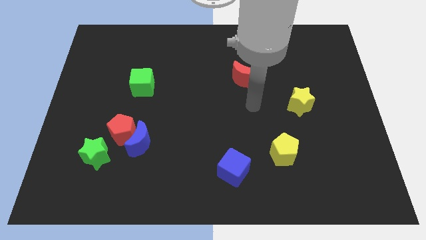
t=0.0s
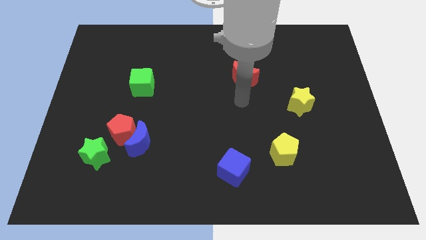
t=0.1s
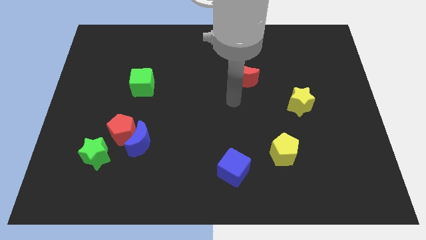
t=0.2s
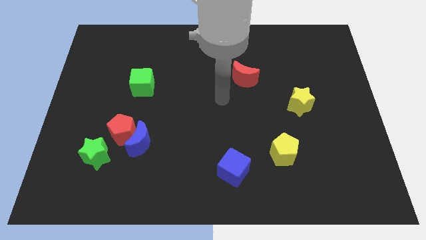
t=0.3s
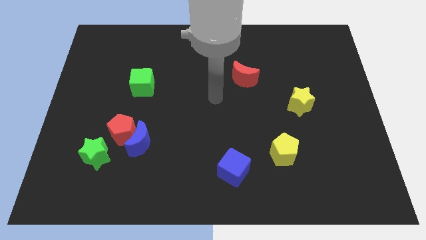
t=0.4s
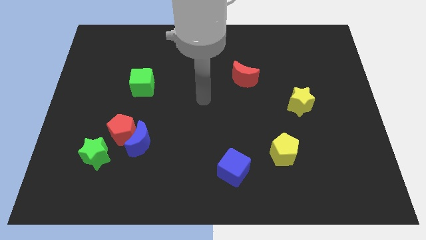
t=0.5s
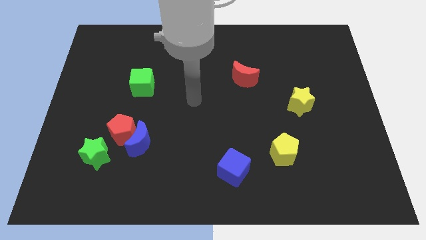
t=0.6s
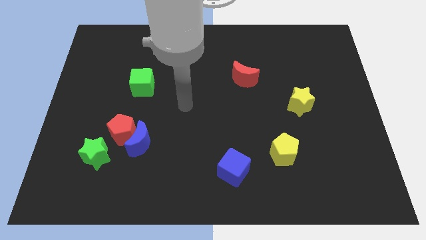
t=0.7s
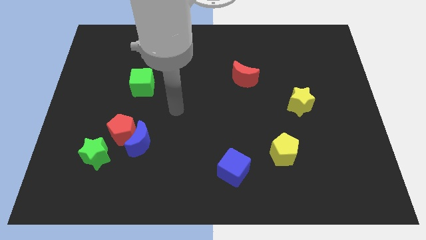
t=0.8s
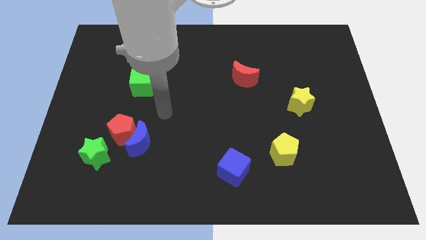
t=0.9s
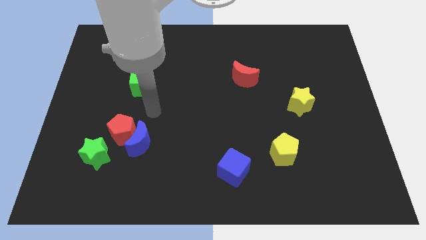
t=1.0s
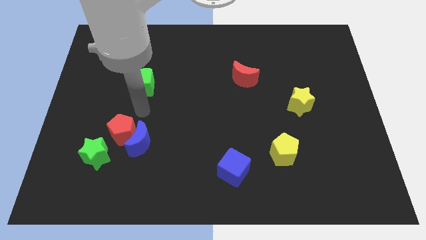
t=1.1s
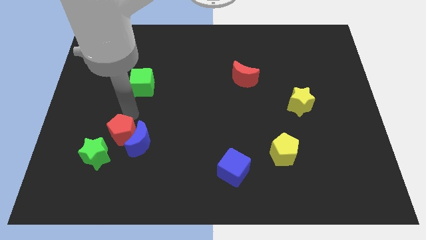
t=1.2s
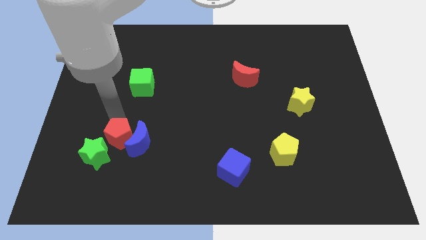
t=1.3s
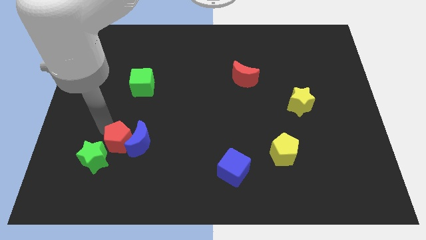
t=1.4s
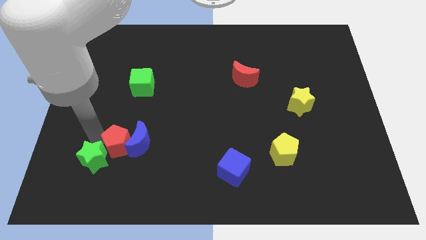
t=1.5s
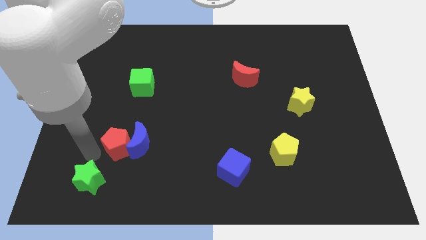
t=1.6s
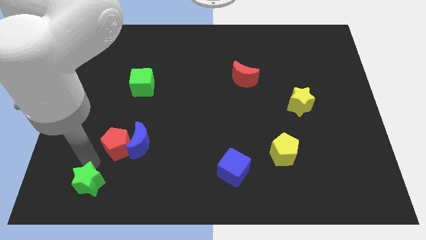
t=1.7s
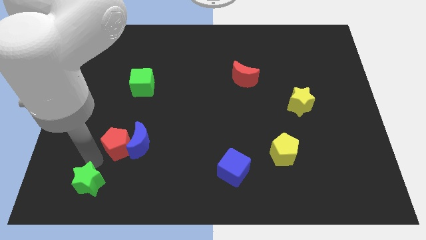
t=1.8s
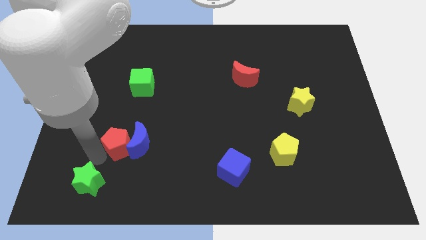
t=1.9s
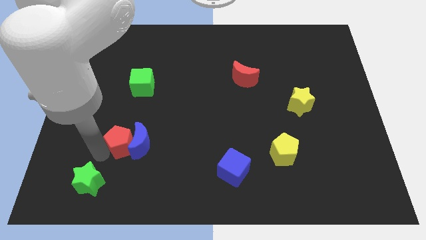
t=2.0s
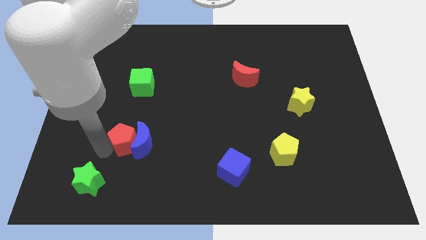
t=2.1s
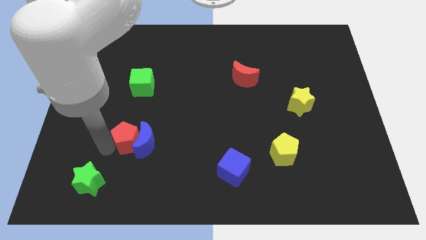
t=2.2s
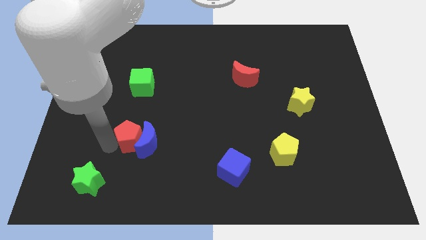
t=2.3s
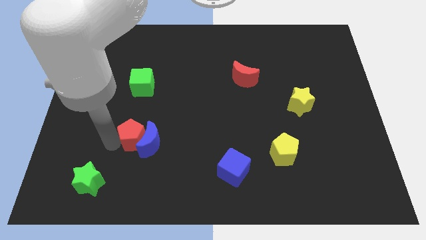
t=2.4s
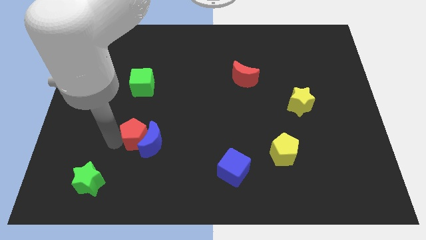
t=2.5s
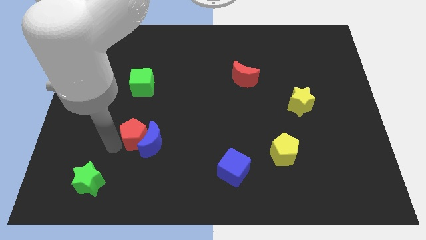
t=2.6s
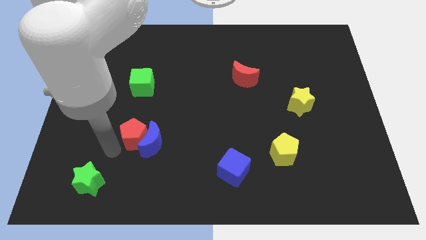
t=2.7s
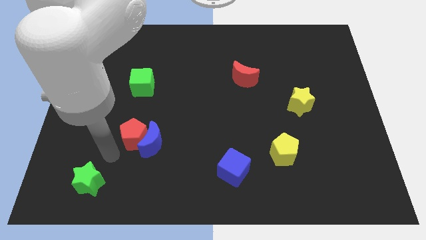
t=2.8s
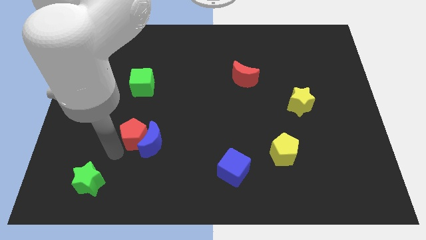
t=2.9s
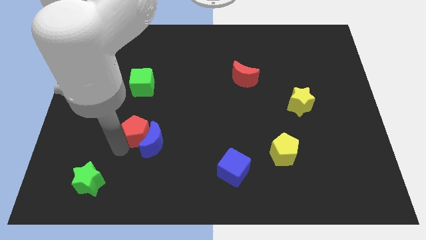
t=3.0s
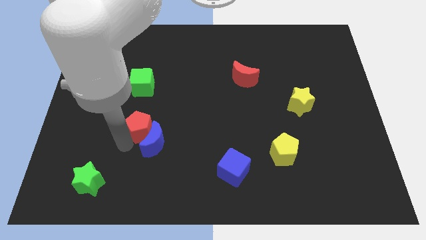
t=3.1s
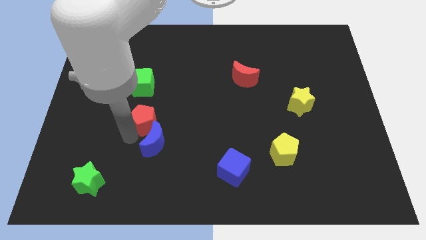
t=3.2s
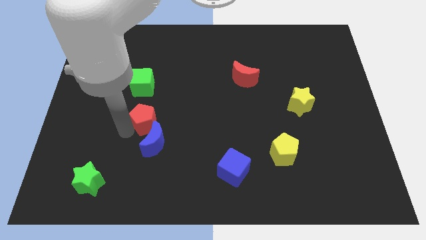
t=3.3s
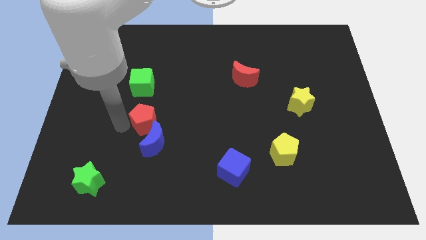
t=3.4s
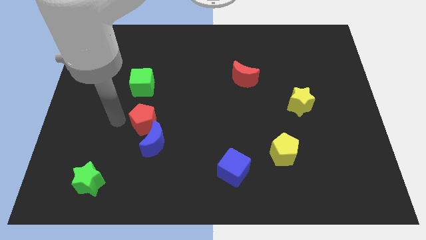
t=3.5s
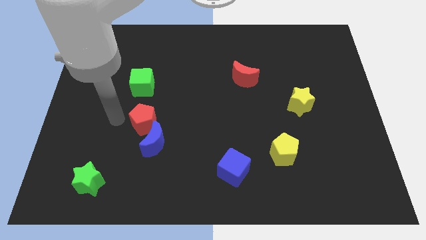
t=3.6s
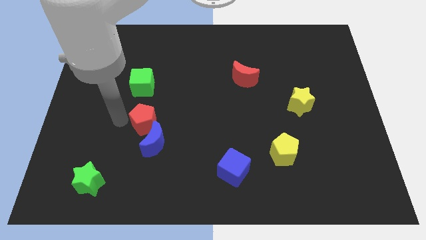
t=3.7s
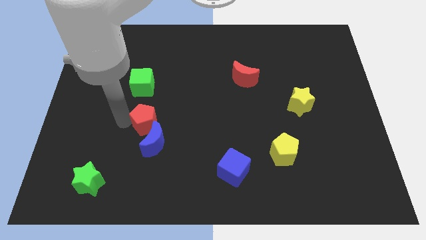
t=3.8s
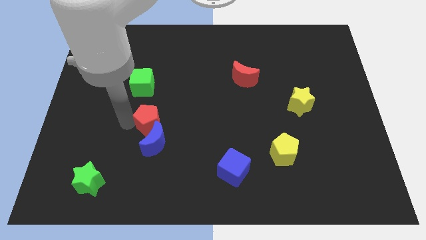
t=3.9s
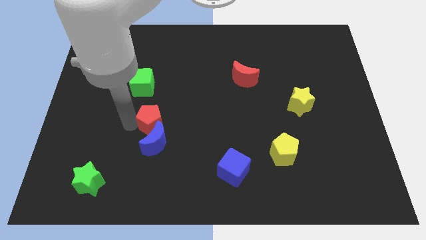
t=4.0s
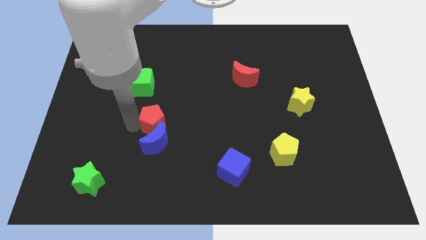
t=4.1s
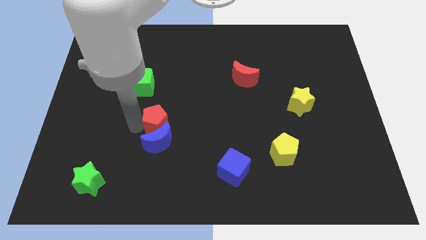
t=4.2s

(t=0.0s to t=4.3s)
push the red pentagon right slightly

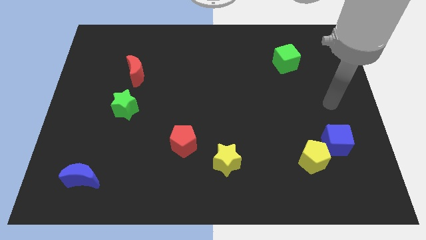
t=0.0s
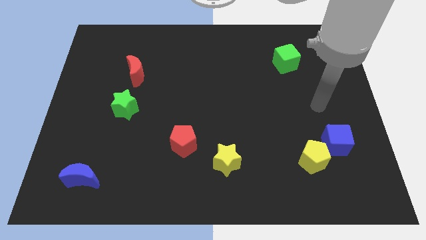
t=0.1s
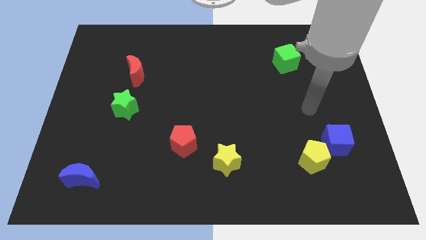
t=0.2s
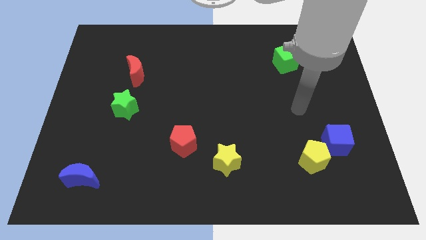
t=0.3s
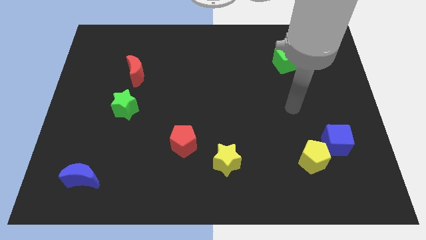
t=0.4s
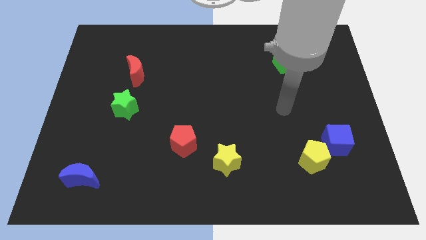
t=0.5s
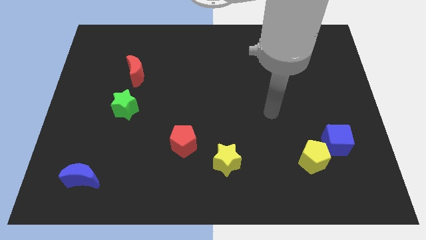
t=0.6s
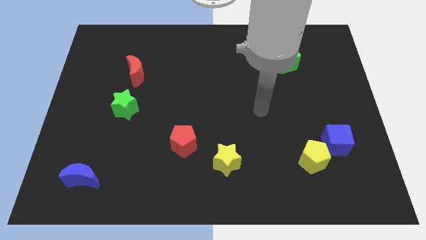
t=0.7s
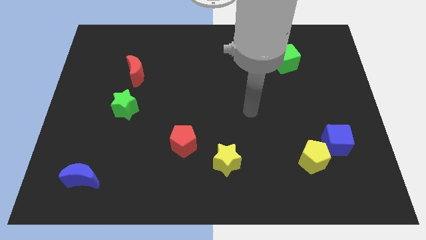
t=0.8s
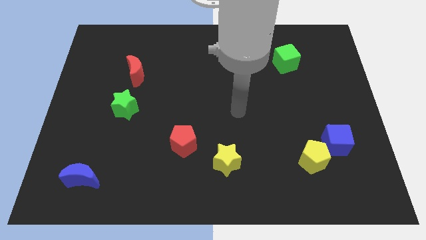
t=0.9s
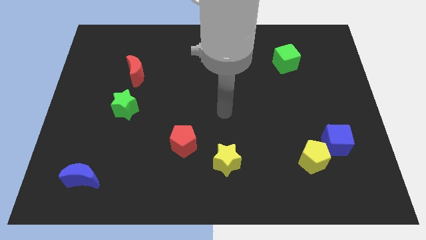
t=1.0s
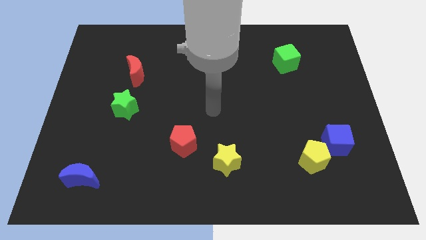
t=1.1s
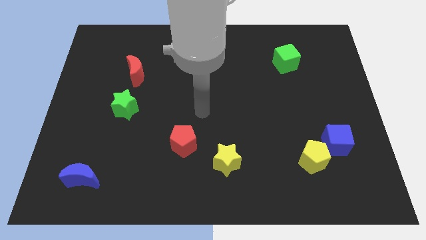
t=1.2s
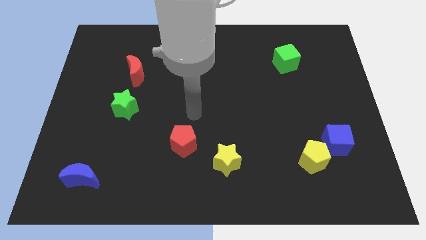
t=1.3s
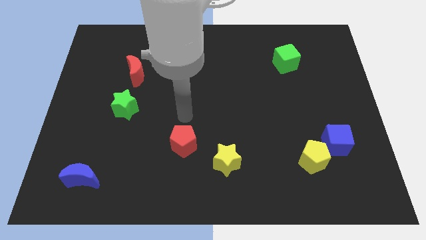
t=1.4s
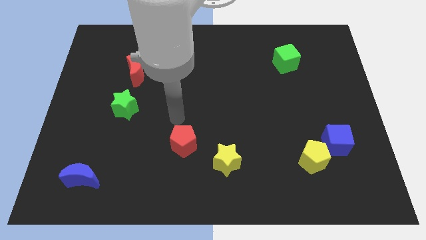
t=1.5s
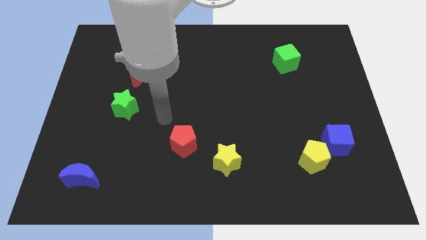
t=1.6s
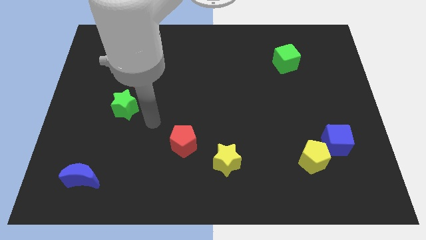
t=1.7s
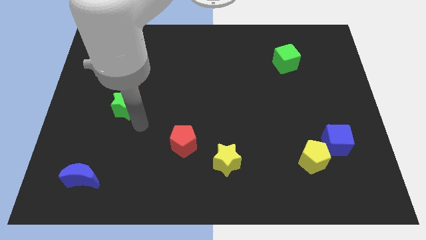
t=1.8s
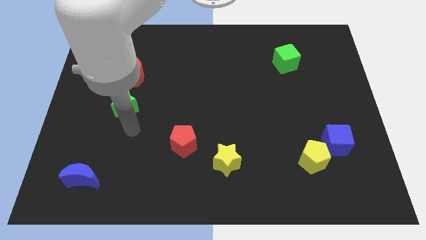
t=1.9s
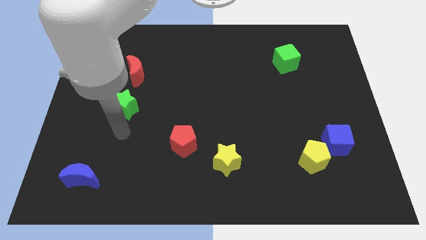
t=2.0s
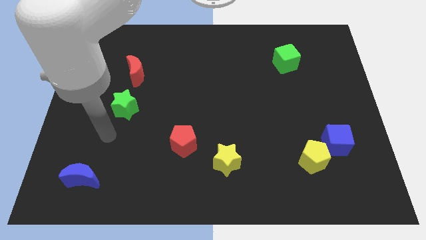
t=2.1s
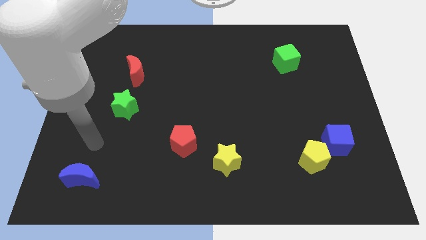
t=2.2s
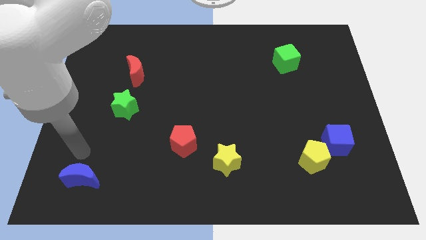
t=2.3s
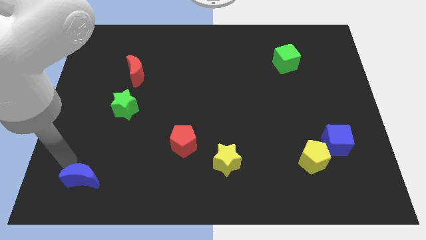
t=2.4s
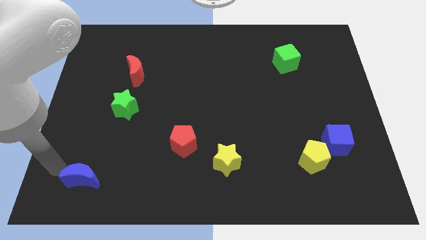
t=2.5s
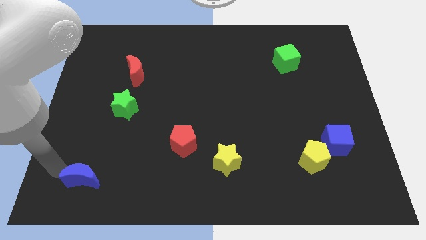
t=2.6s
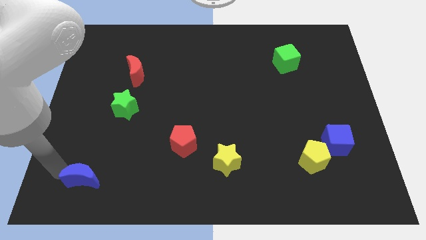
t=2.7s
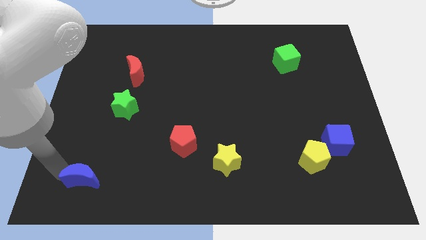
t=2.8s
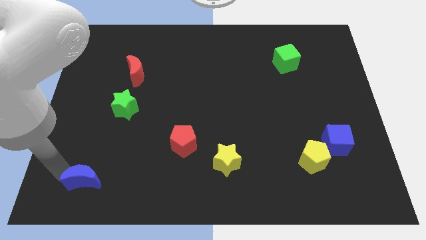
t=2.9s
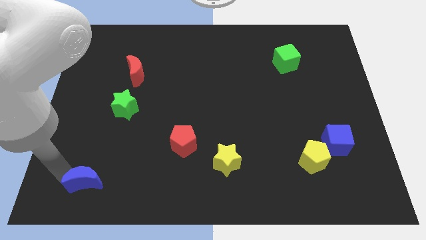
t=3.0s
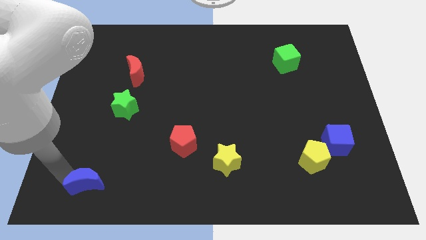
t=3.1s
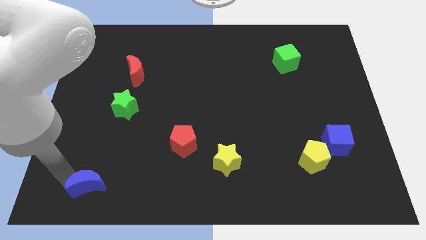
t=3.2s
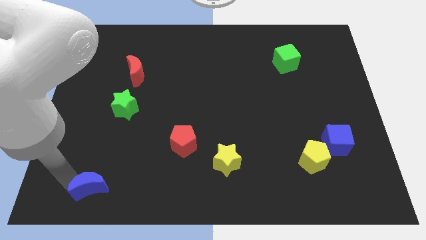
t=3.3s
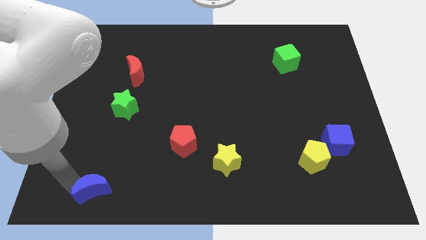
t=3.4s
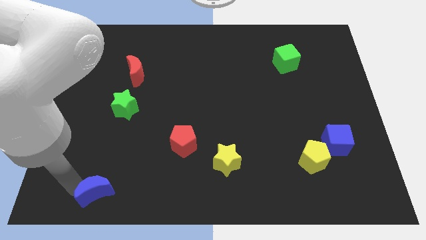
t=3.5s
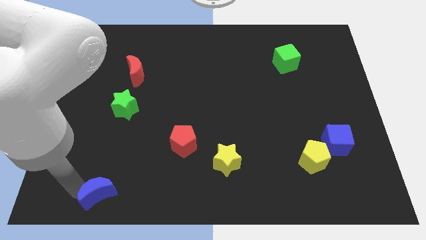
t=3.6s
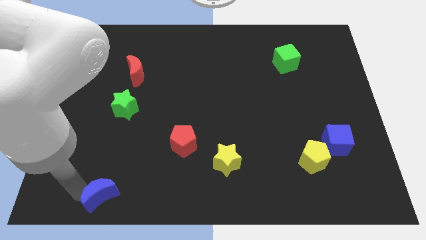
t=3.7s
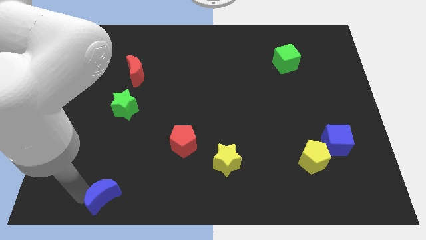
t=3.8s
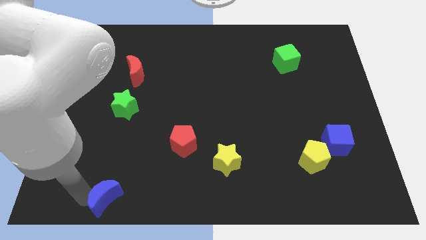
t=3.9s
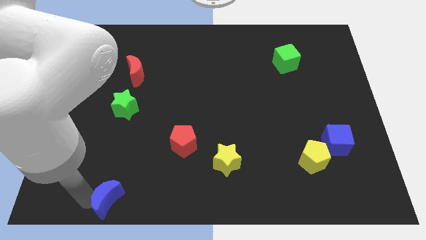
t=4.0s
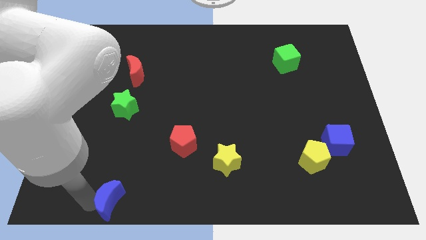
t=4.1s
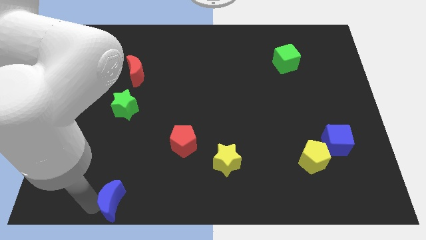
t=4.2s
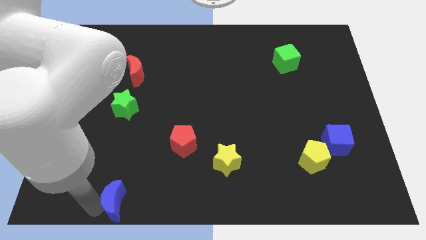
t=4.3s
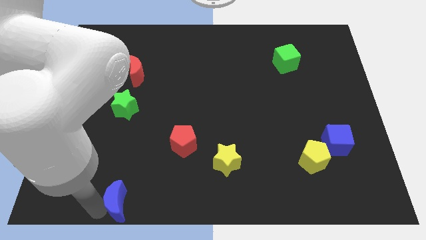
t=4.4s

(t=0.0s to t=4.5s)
slightly slide the blue moon right
